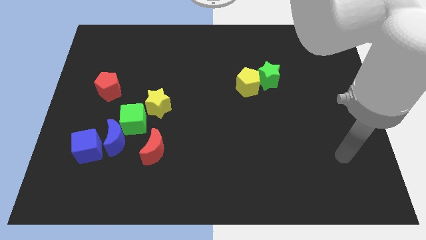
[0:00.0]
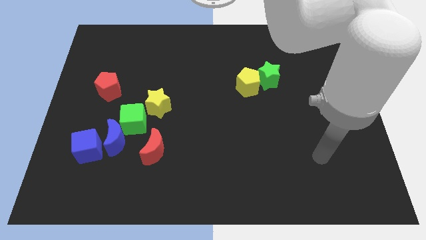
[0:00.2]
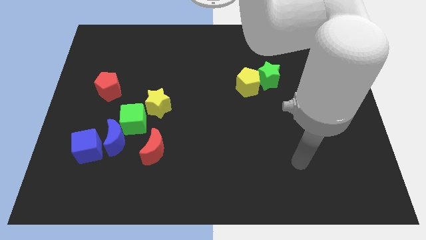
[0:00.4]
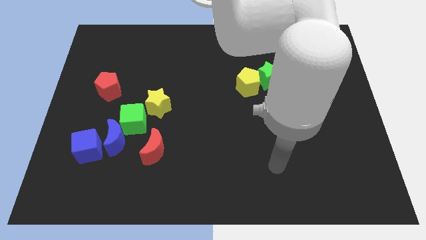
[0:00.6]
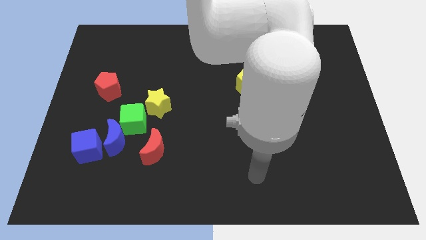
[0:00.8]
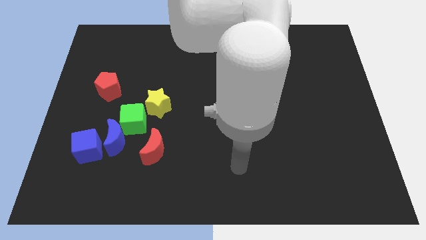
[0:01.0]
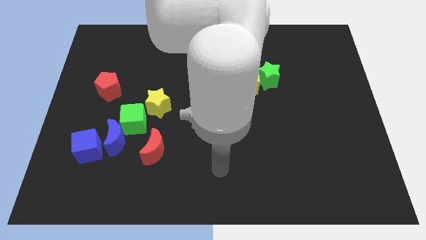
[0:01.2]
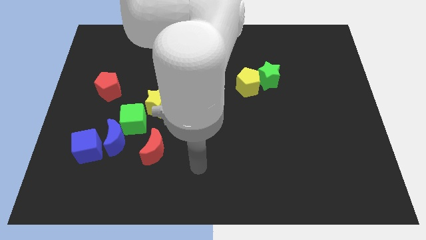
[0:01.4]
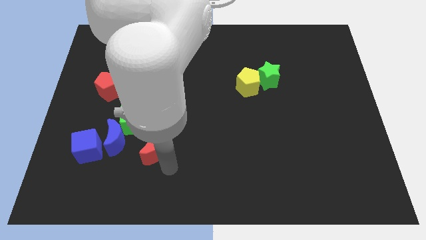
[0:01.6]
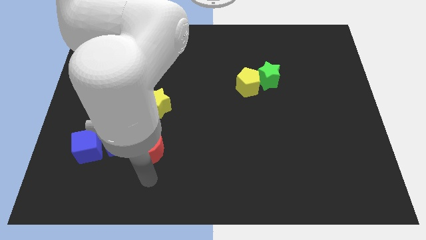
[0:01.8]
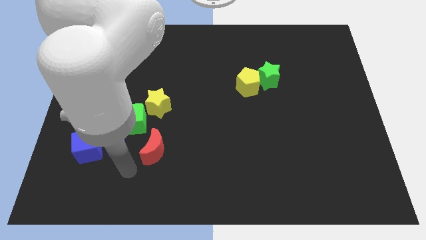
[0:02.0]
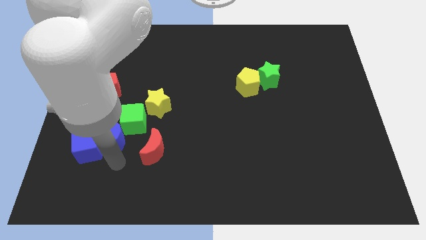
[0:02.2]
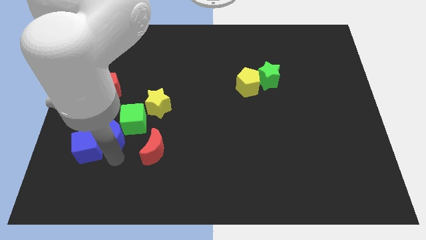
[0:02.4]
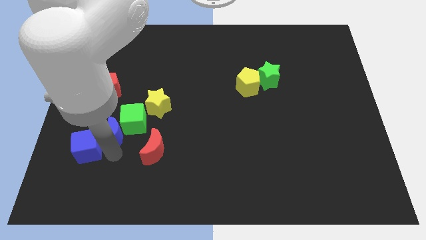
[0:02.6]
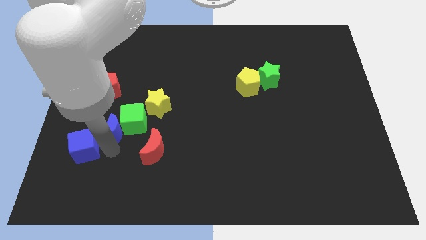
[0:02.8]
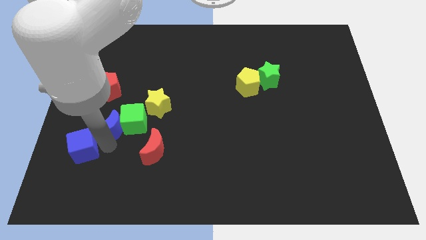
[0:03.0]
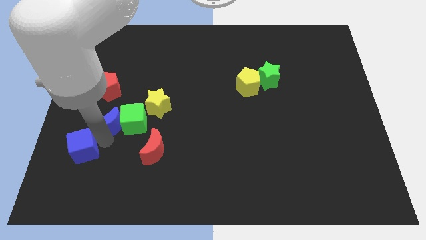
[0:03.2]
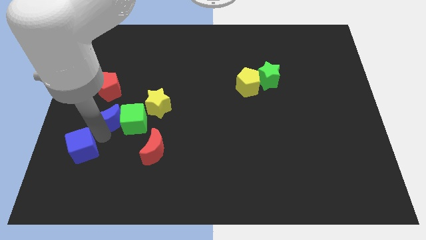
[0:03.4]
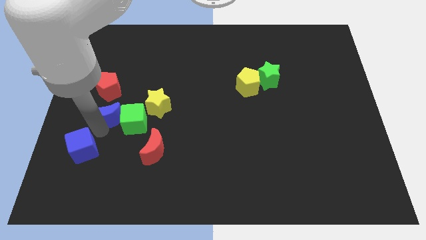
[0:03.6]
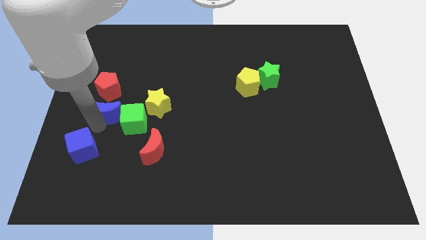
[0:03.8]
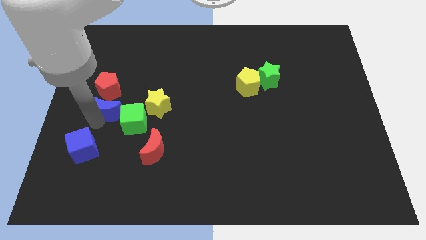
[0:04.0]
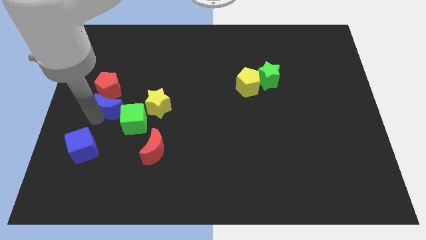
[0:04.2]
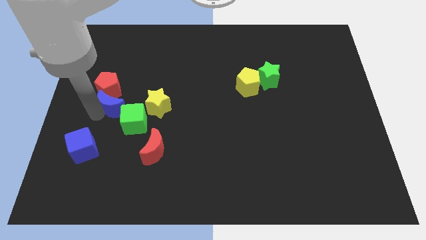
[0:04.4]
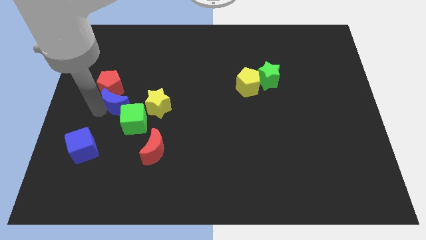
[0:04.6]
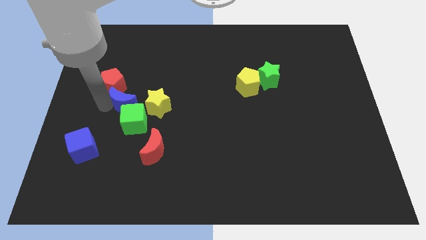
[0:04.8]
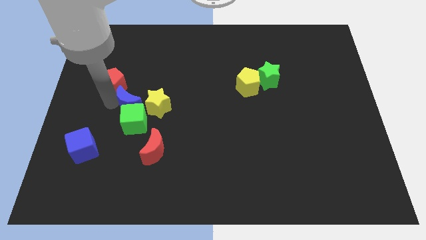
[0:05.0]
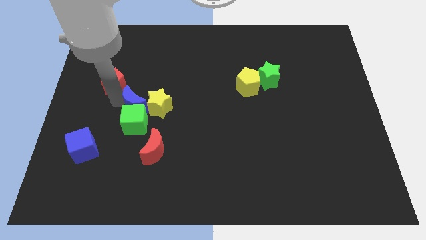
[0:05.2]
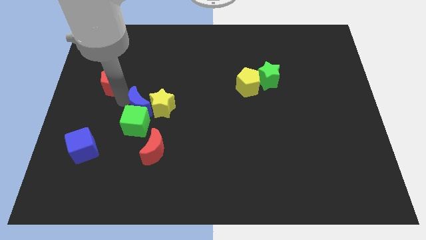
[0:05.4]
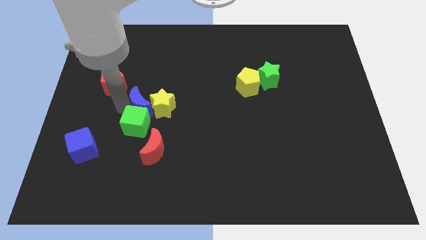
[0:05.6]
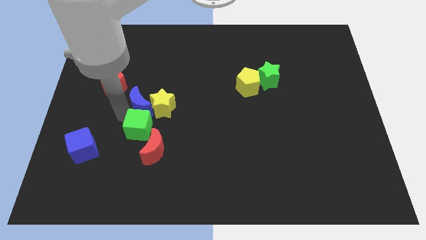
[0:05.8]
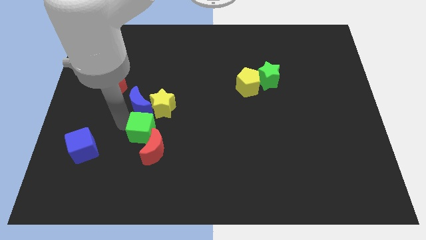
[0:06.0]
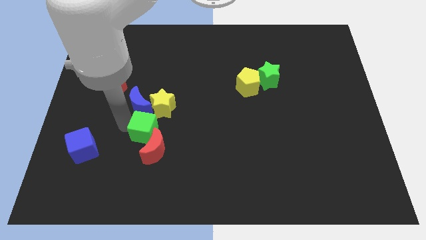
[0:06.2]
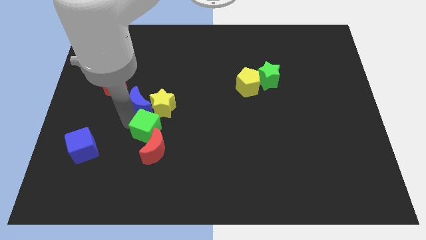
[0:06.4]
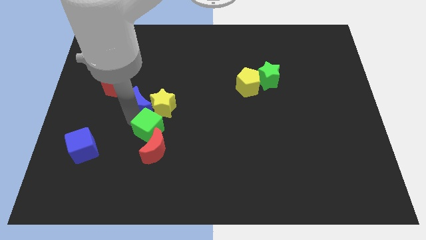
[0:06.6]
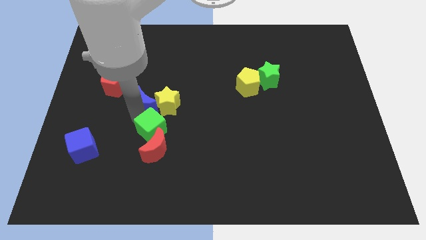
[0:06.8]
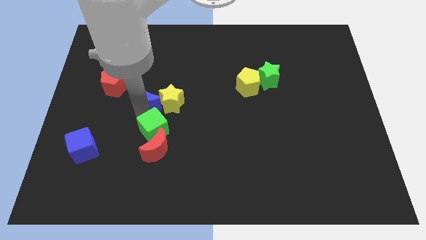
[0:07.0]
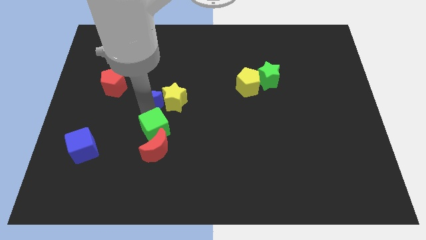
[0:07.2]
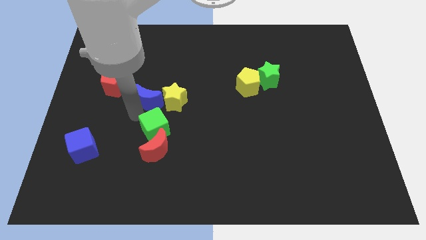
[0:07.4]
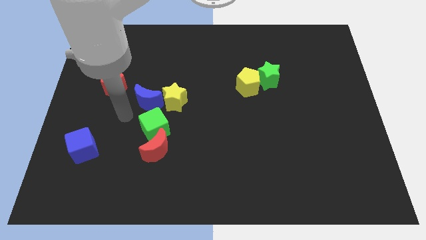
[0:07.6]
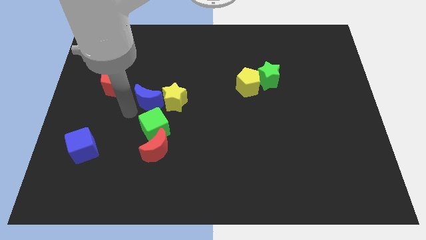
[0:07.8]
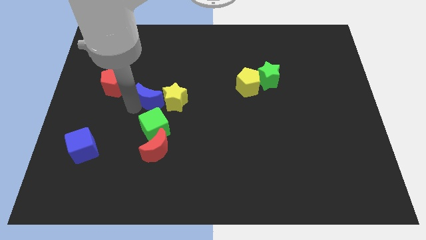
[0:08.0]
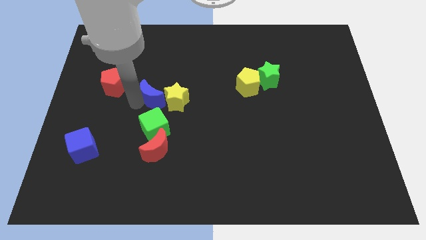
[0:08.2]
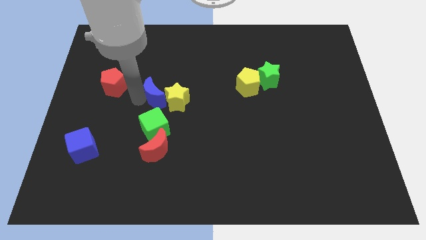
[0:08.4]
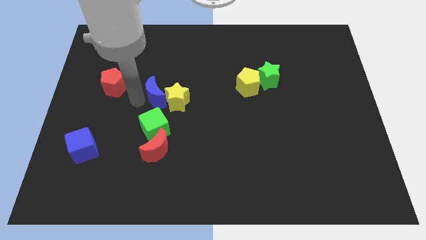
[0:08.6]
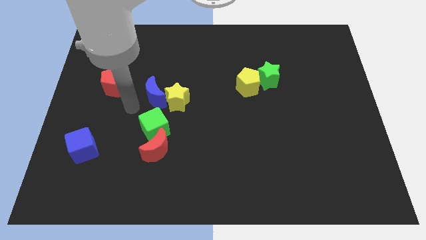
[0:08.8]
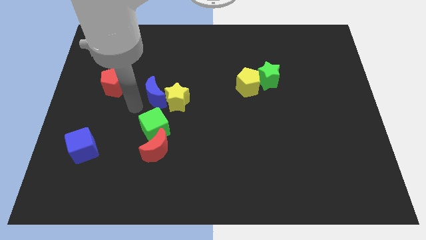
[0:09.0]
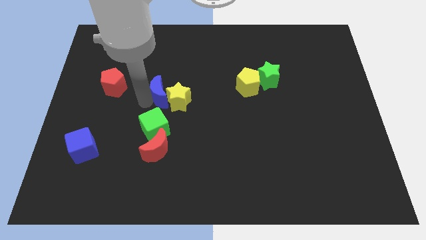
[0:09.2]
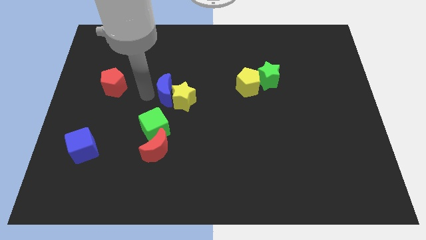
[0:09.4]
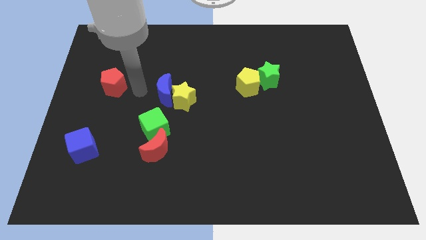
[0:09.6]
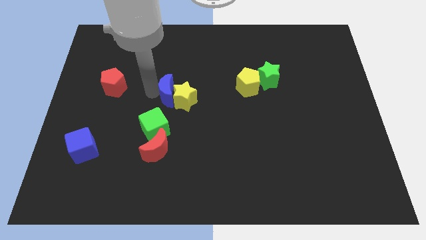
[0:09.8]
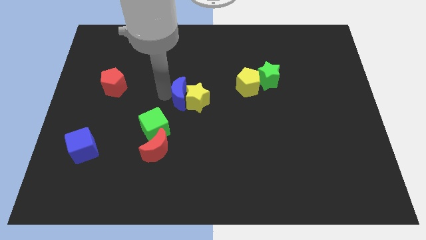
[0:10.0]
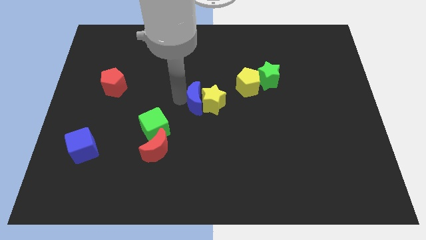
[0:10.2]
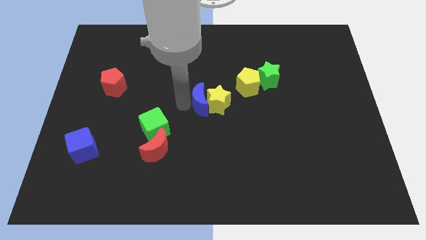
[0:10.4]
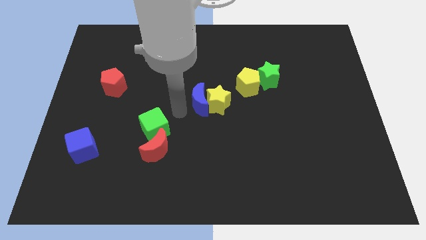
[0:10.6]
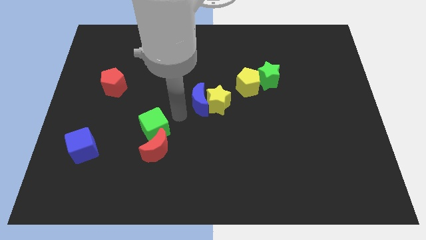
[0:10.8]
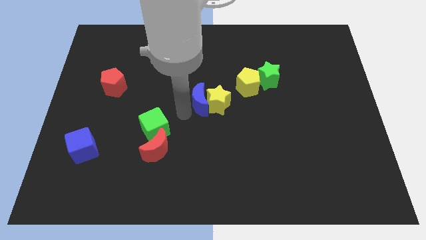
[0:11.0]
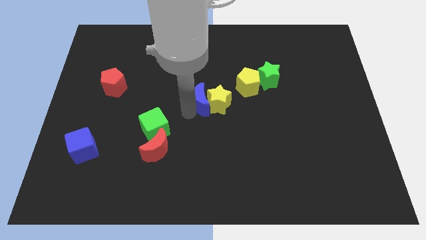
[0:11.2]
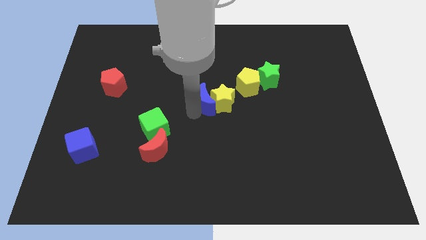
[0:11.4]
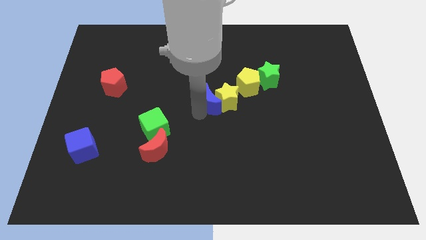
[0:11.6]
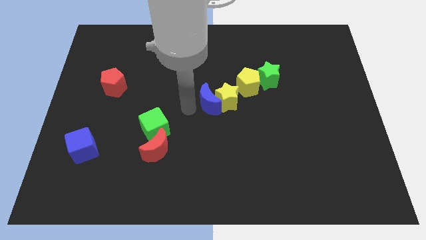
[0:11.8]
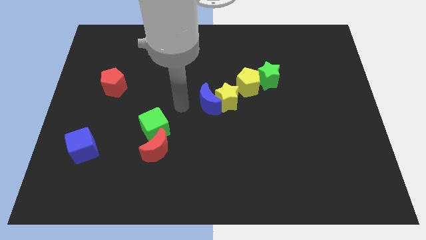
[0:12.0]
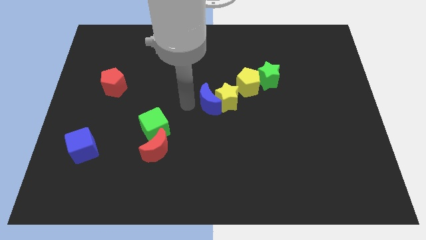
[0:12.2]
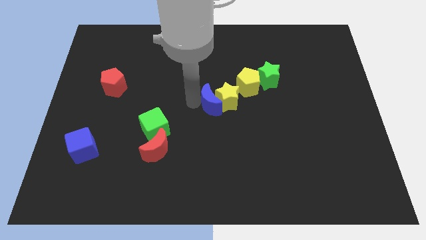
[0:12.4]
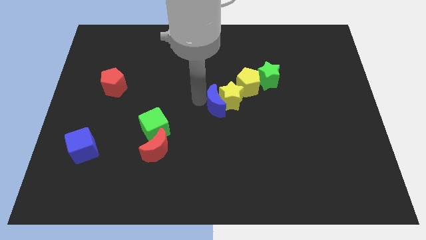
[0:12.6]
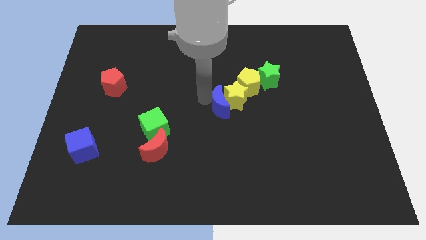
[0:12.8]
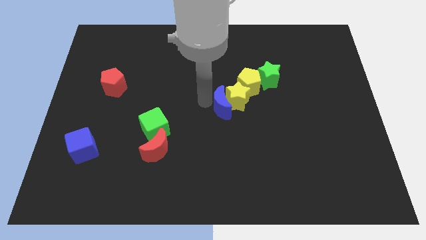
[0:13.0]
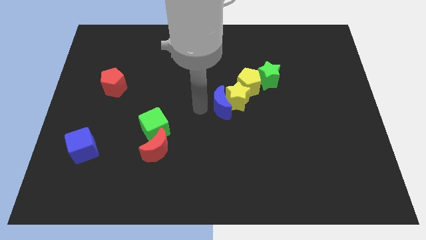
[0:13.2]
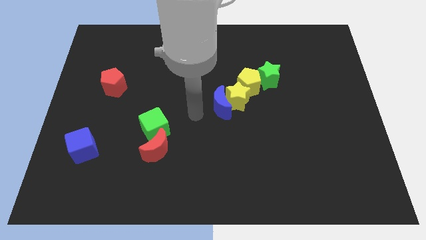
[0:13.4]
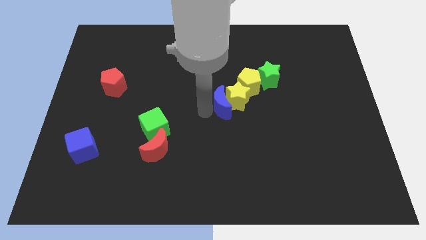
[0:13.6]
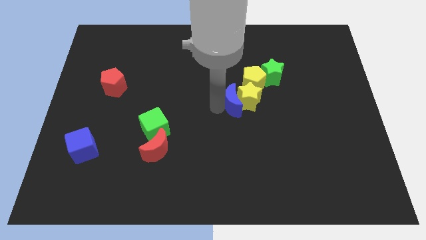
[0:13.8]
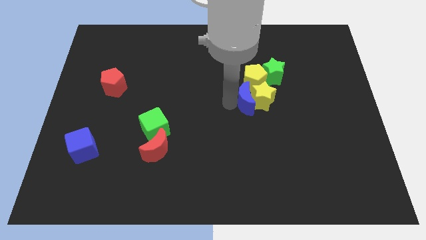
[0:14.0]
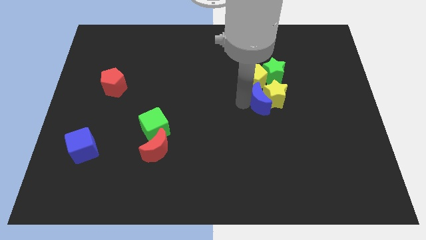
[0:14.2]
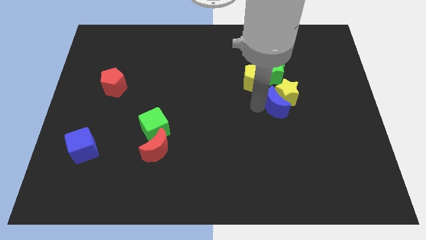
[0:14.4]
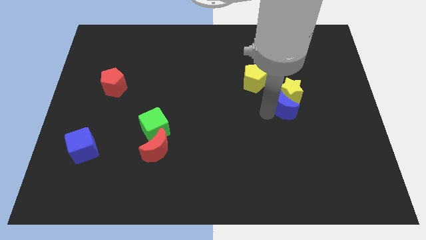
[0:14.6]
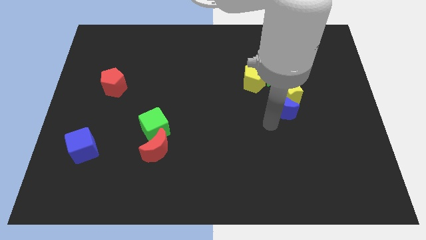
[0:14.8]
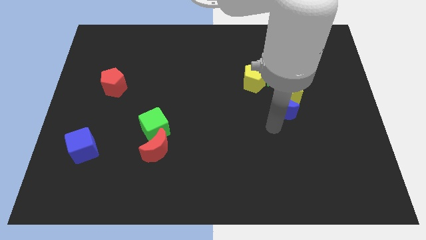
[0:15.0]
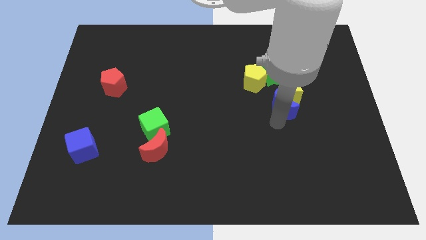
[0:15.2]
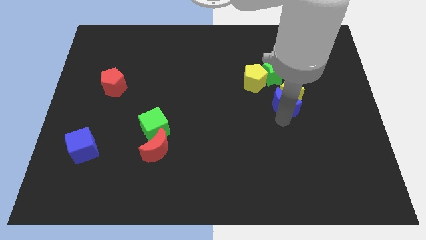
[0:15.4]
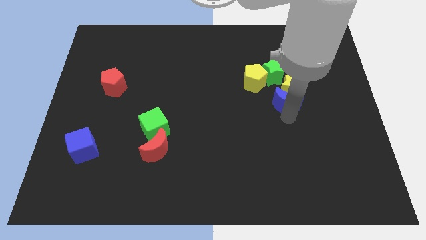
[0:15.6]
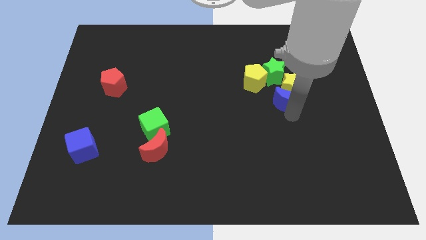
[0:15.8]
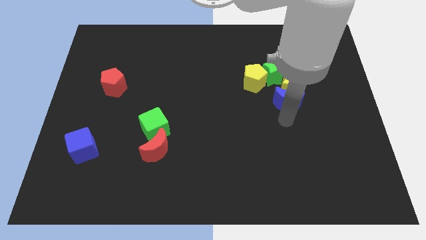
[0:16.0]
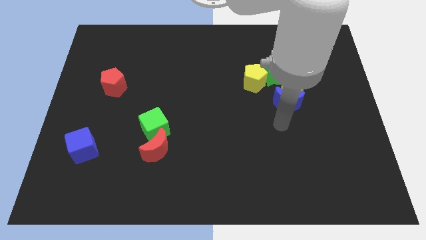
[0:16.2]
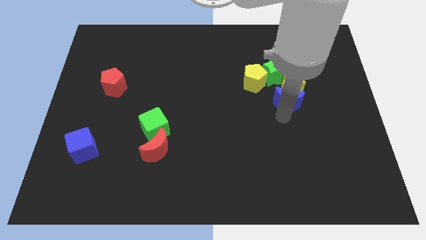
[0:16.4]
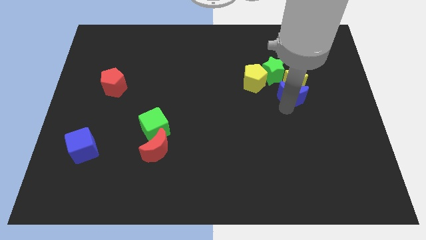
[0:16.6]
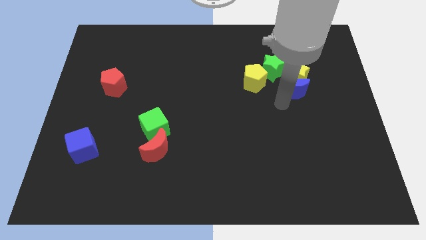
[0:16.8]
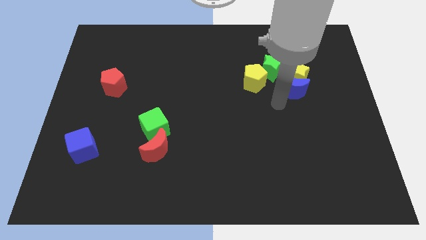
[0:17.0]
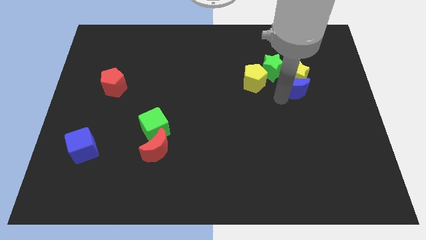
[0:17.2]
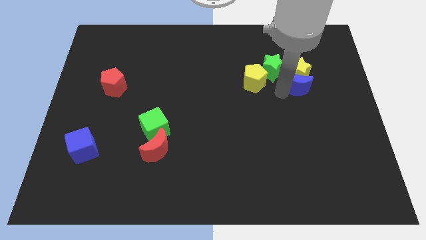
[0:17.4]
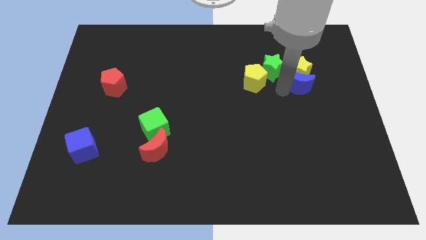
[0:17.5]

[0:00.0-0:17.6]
push the blue moon to the right side of the green star
